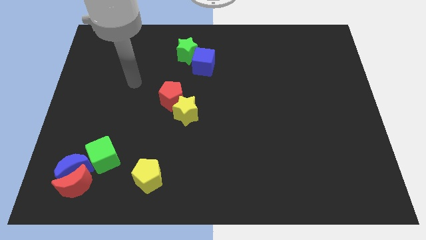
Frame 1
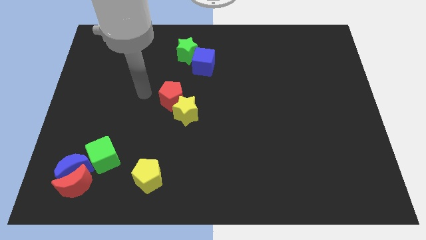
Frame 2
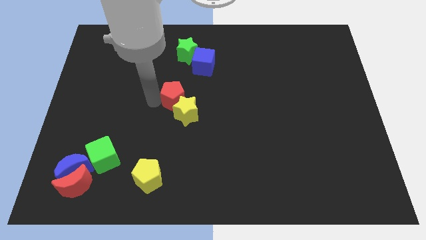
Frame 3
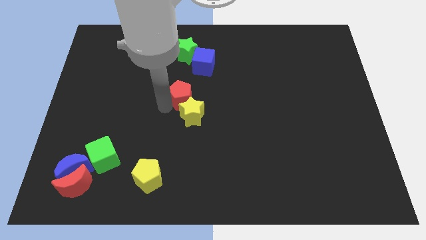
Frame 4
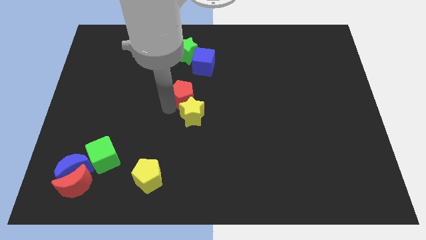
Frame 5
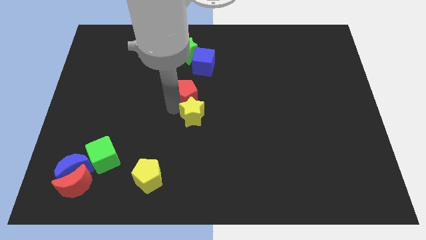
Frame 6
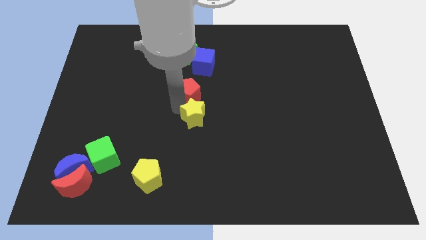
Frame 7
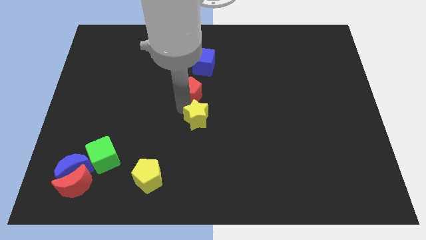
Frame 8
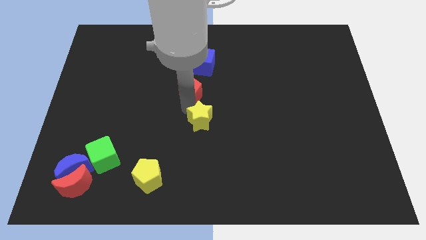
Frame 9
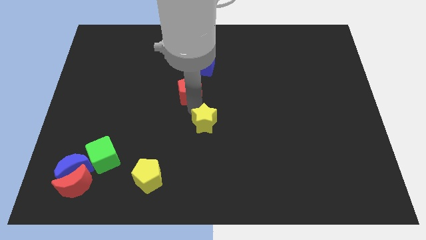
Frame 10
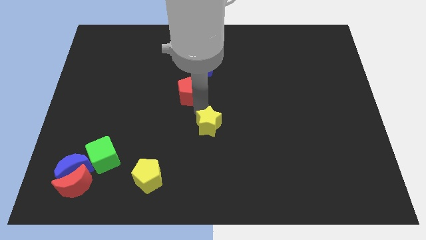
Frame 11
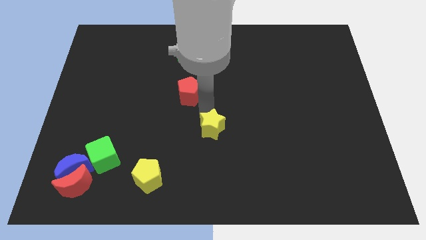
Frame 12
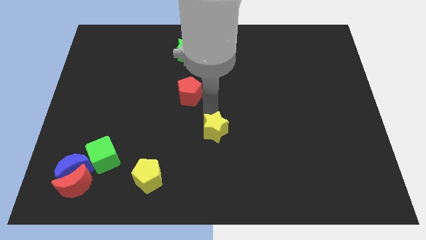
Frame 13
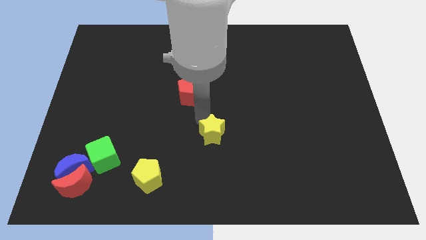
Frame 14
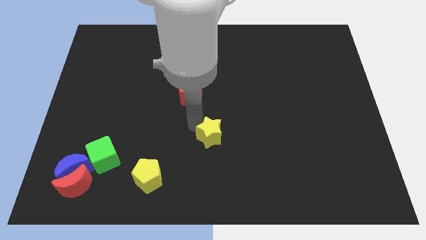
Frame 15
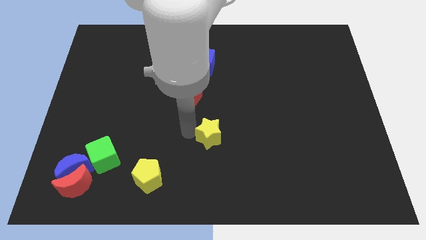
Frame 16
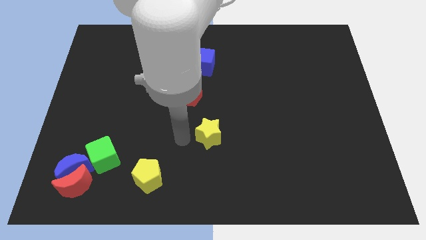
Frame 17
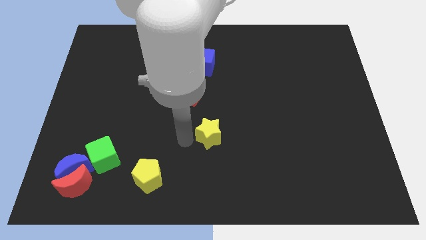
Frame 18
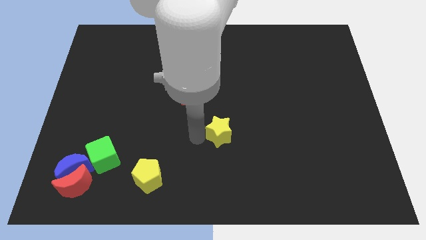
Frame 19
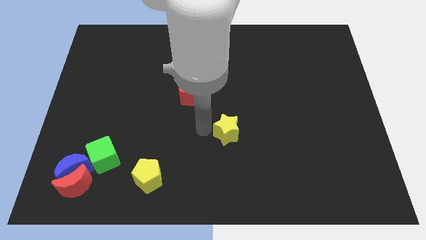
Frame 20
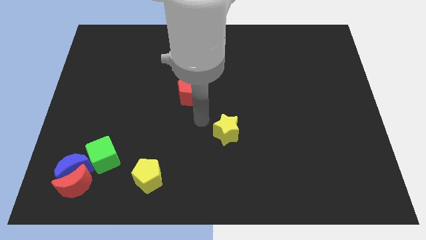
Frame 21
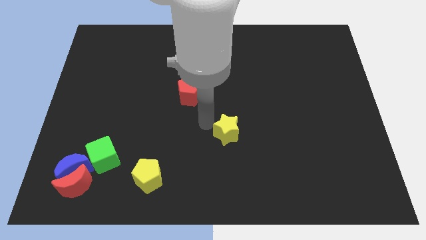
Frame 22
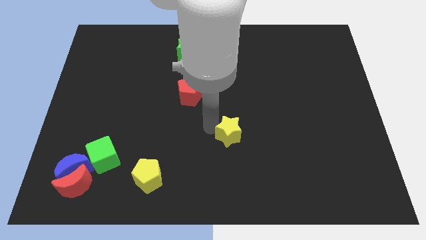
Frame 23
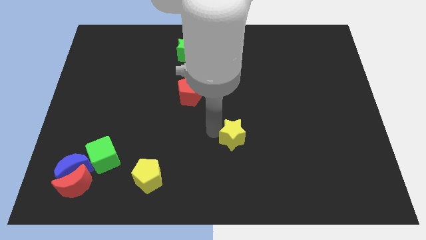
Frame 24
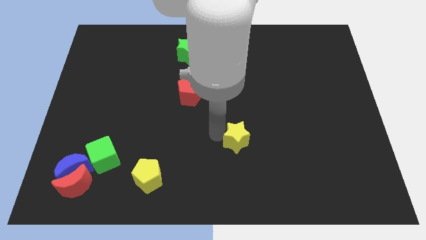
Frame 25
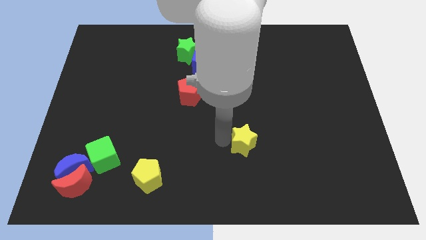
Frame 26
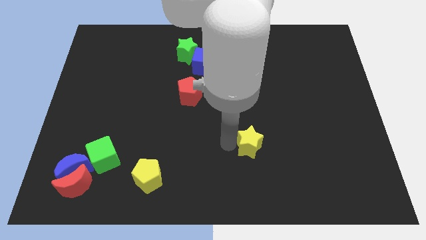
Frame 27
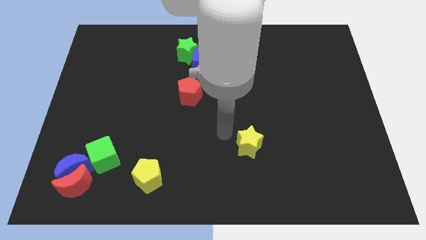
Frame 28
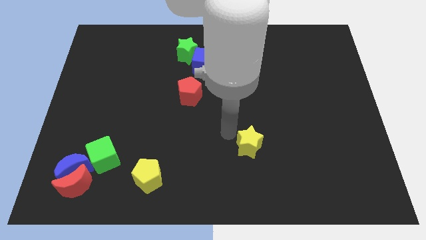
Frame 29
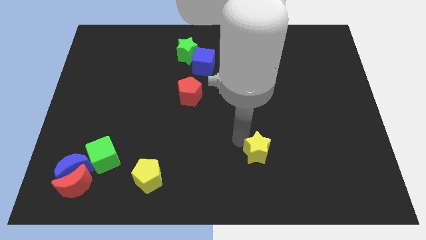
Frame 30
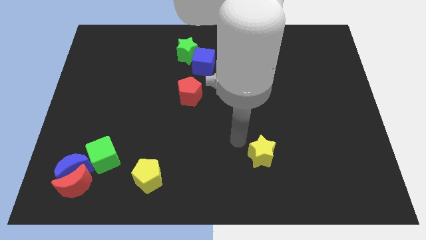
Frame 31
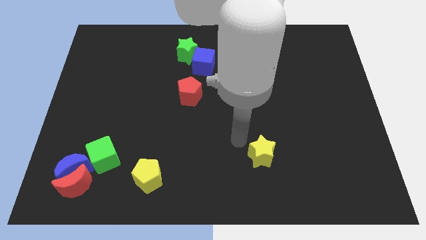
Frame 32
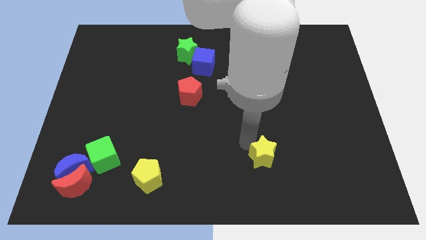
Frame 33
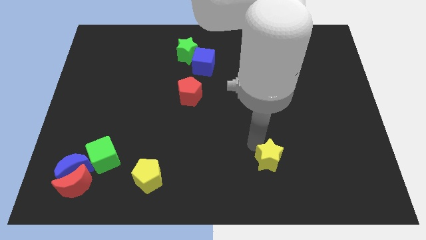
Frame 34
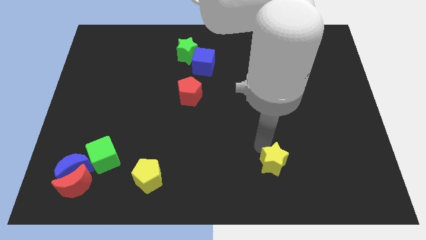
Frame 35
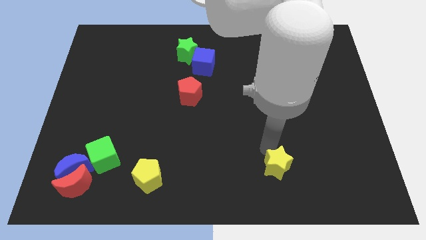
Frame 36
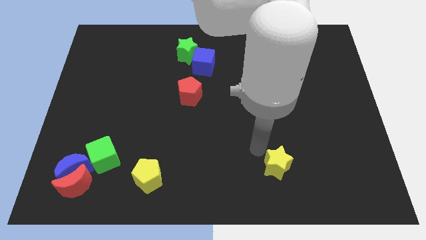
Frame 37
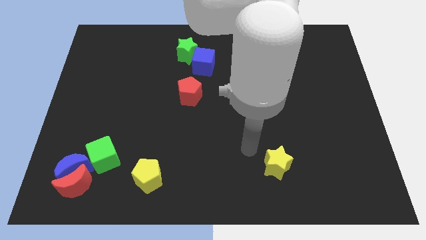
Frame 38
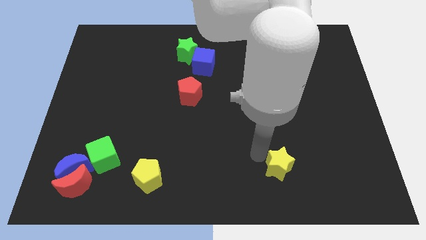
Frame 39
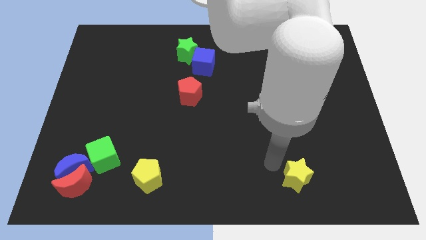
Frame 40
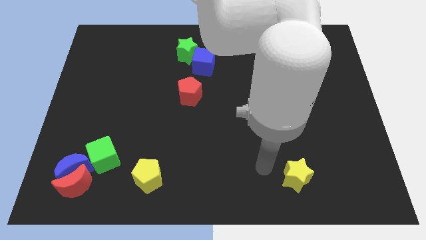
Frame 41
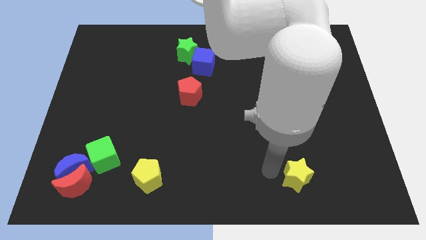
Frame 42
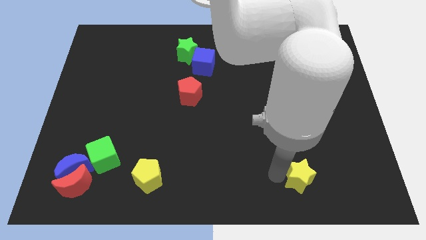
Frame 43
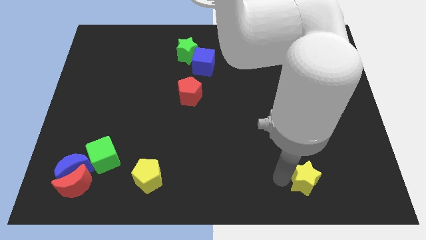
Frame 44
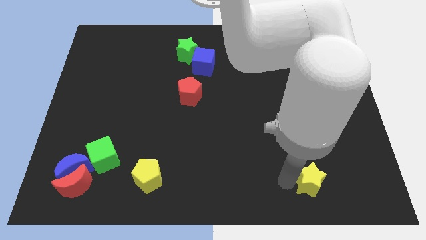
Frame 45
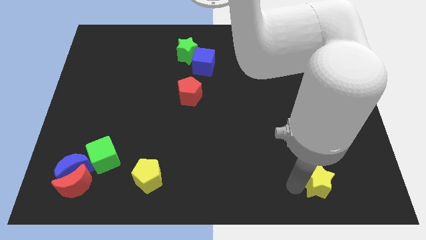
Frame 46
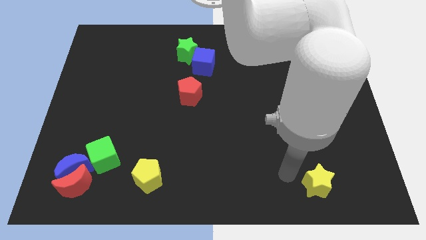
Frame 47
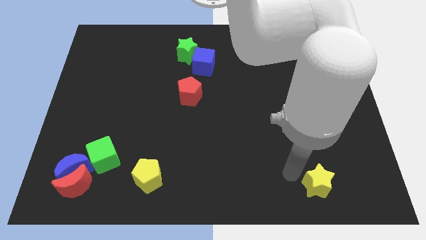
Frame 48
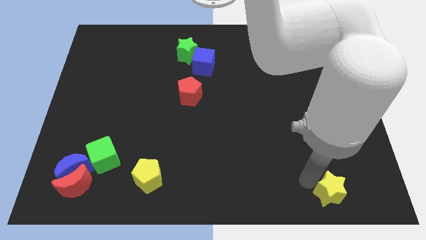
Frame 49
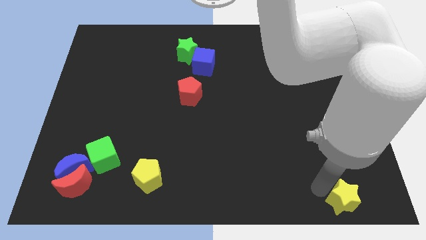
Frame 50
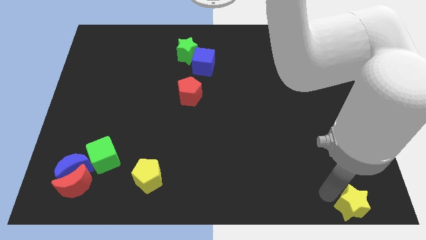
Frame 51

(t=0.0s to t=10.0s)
put the yellow star to the bottom right

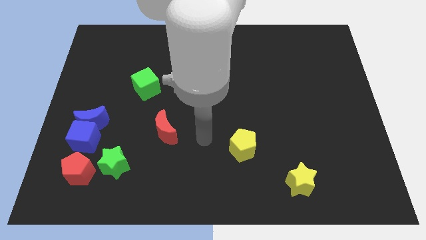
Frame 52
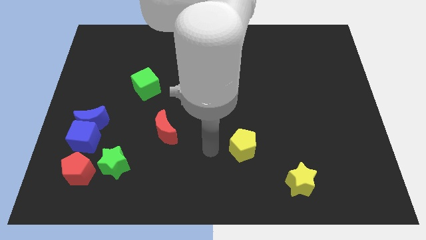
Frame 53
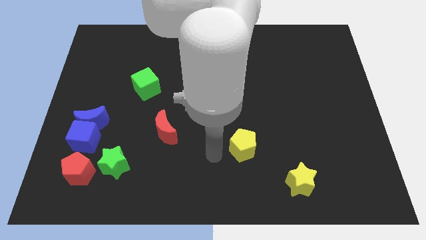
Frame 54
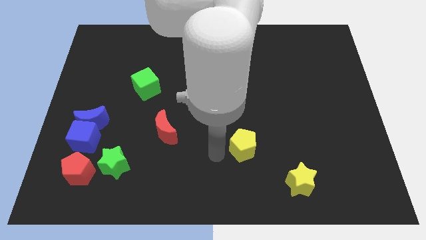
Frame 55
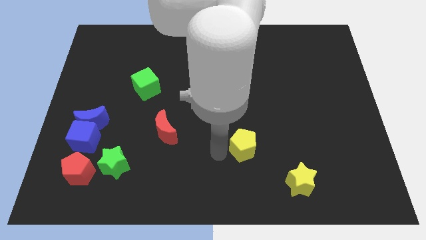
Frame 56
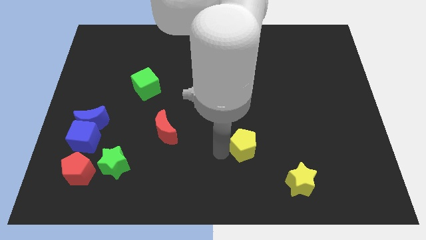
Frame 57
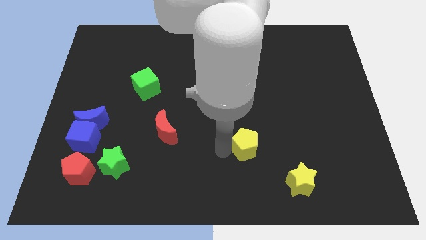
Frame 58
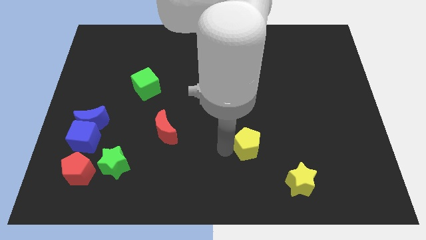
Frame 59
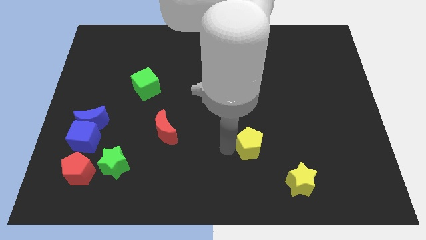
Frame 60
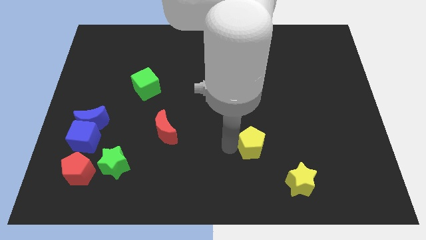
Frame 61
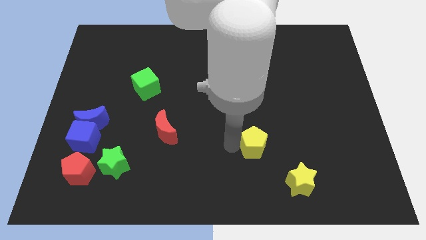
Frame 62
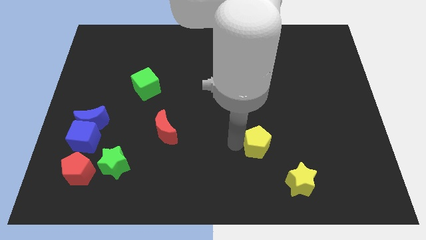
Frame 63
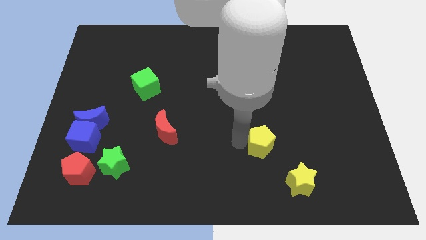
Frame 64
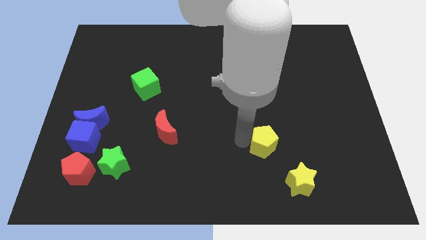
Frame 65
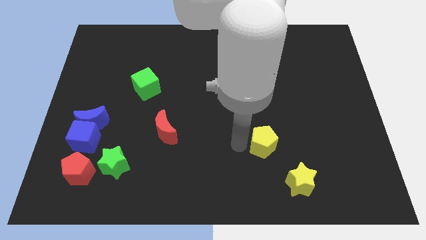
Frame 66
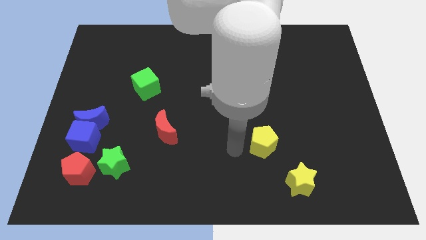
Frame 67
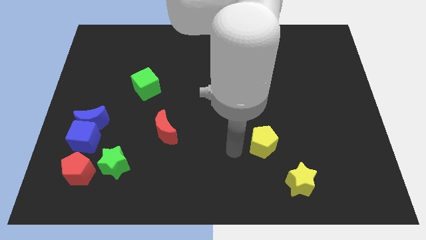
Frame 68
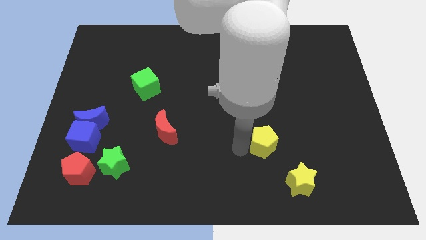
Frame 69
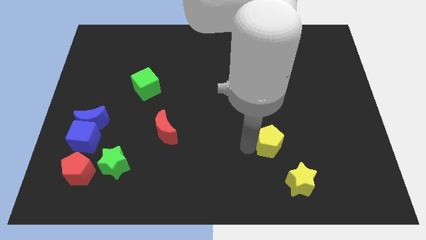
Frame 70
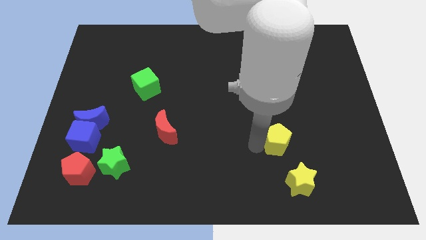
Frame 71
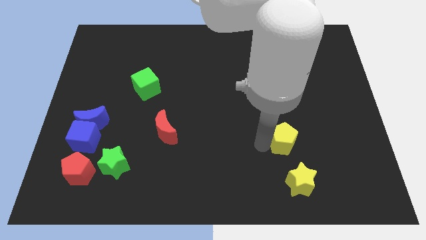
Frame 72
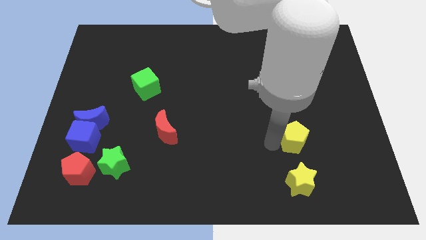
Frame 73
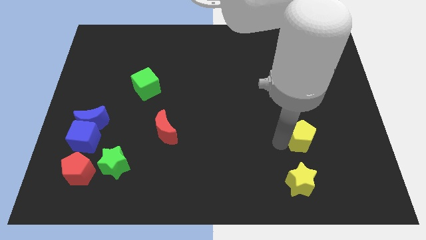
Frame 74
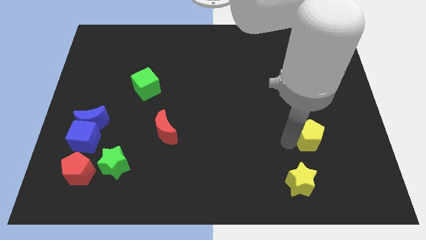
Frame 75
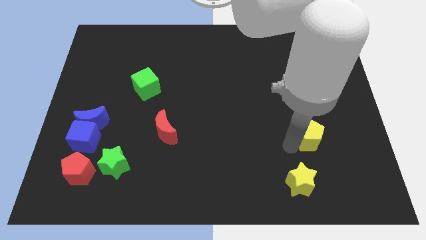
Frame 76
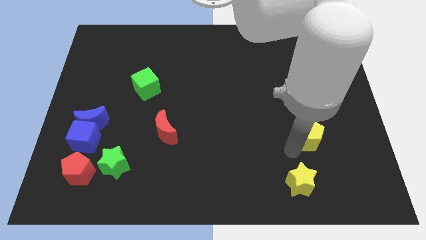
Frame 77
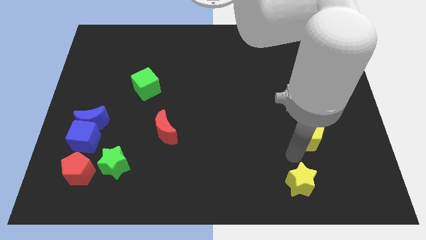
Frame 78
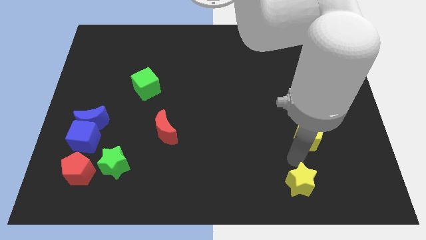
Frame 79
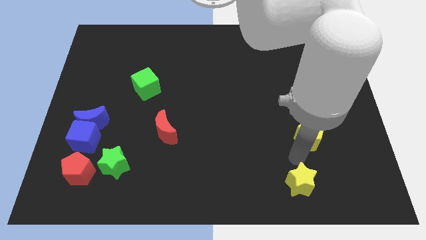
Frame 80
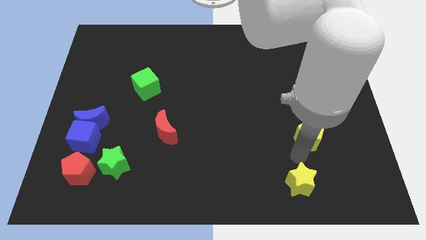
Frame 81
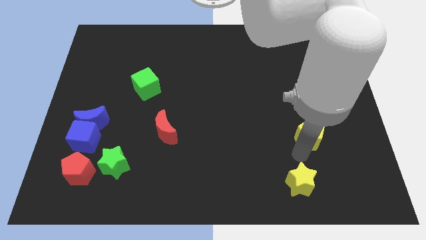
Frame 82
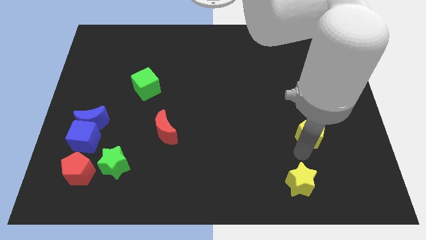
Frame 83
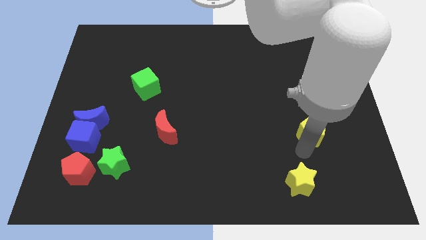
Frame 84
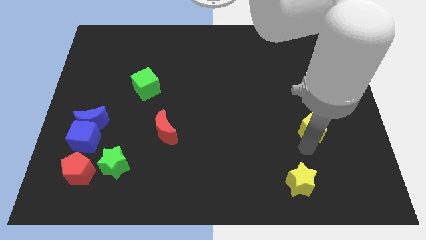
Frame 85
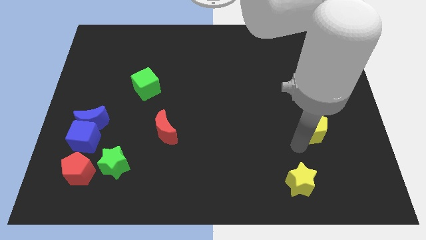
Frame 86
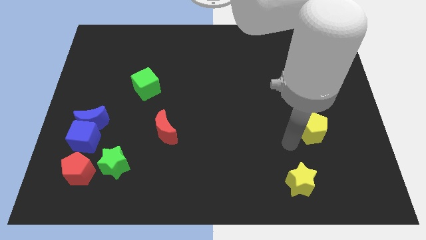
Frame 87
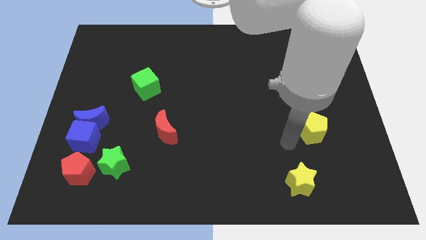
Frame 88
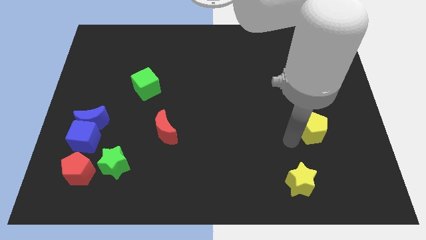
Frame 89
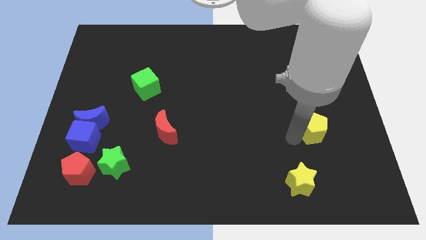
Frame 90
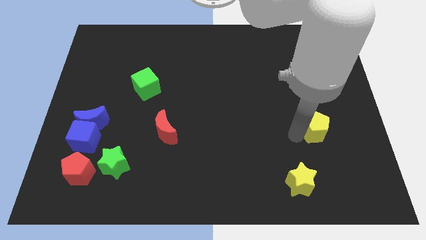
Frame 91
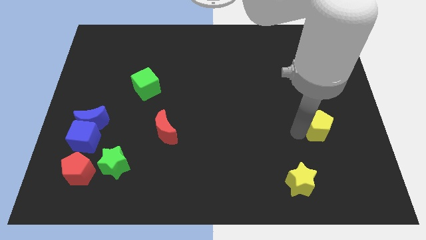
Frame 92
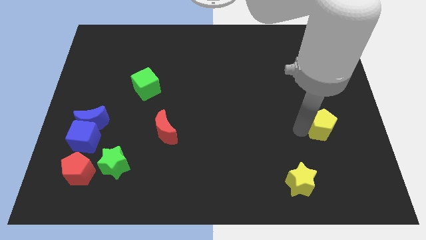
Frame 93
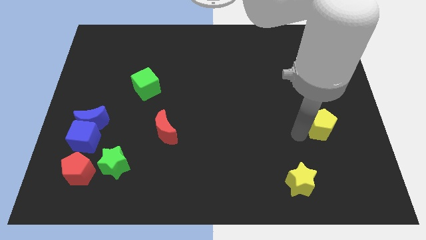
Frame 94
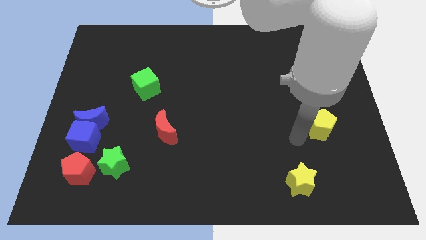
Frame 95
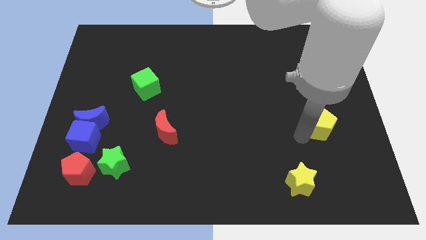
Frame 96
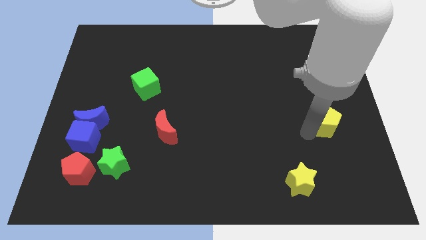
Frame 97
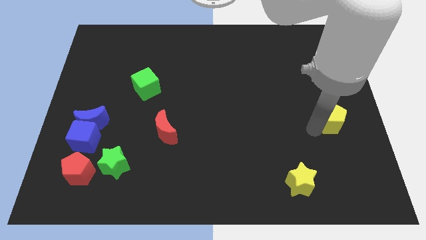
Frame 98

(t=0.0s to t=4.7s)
push the yellow pentagon to the right side
